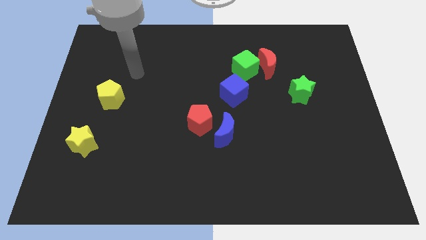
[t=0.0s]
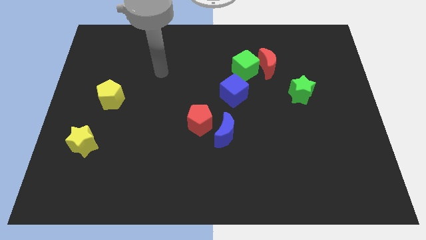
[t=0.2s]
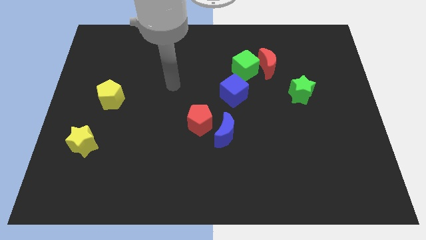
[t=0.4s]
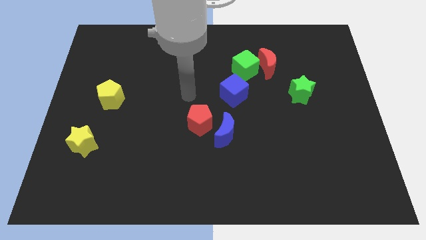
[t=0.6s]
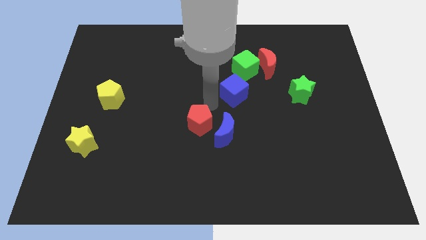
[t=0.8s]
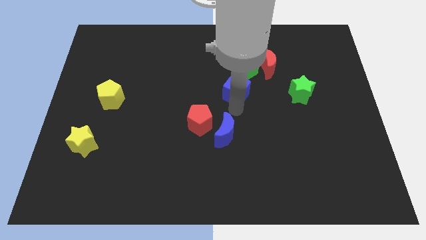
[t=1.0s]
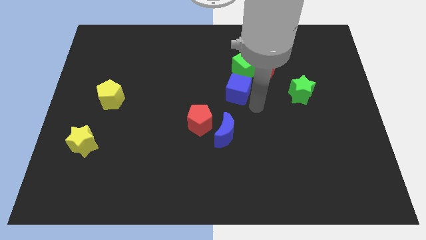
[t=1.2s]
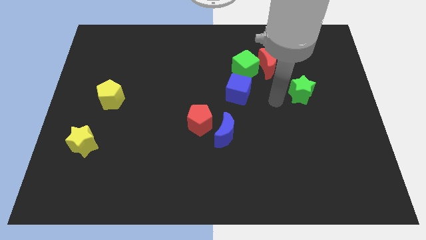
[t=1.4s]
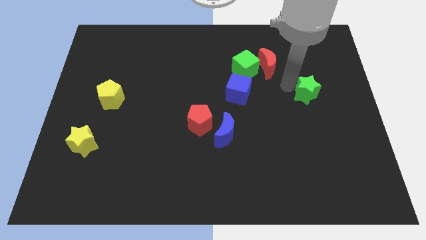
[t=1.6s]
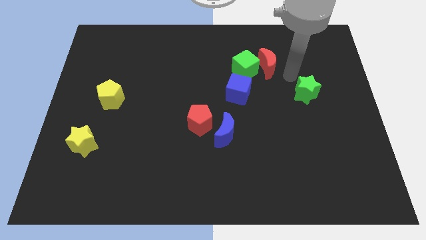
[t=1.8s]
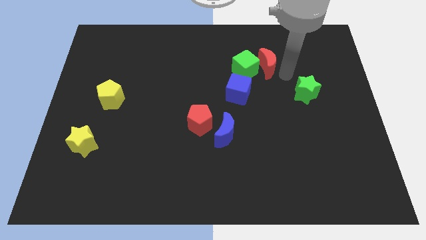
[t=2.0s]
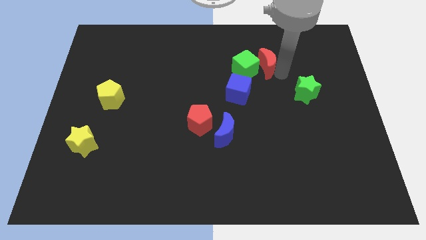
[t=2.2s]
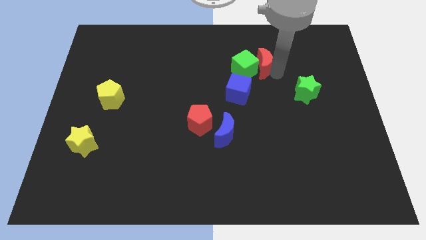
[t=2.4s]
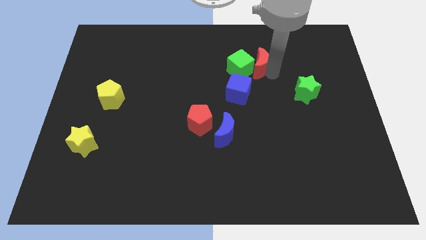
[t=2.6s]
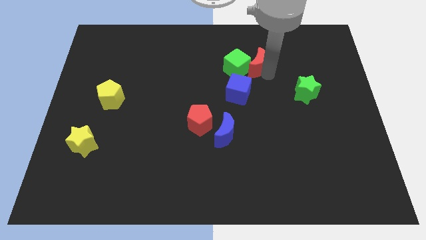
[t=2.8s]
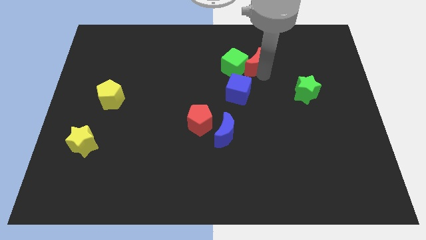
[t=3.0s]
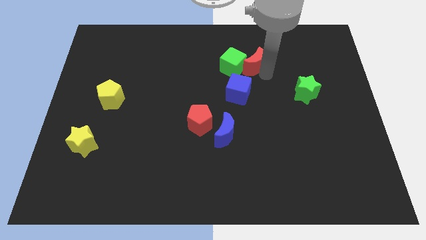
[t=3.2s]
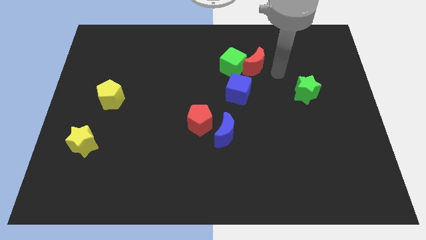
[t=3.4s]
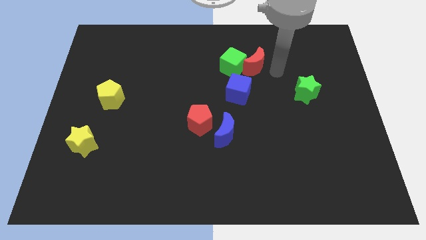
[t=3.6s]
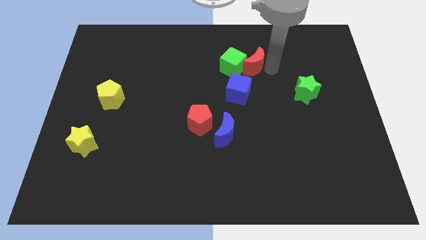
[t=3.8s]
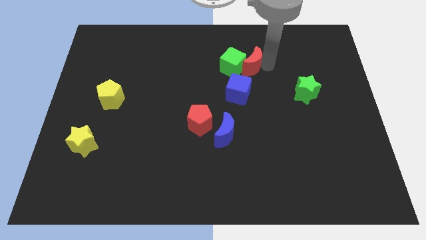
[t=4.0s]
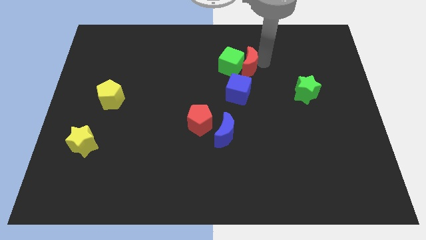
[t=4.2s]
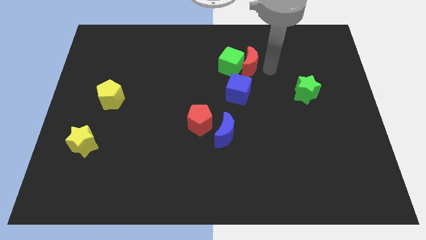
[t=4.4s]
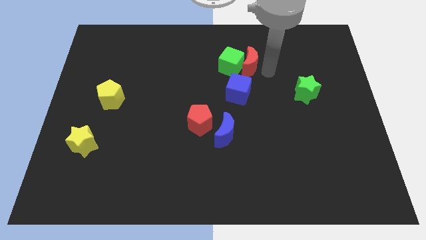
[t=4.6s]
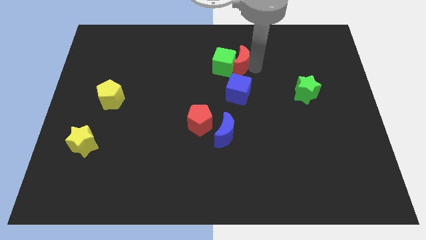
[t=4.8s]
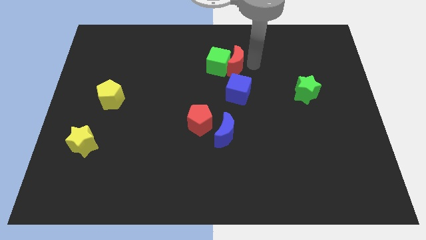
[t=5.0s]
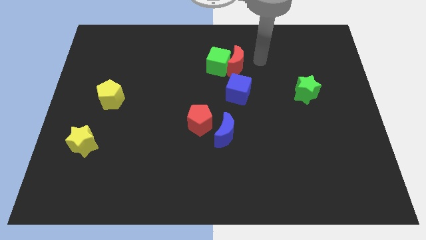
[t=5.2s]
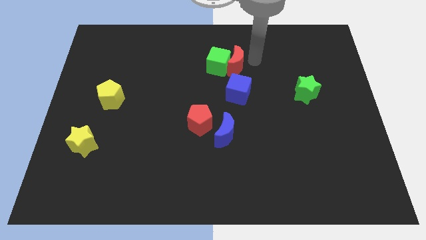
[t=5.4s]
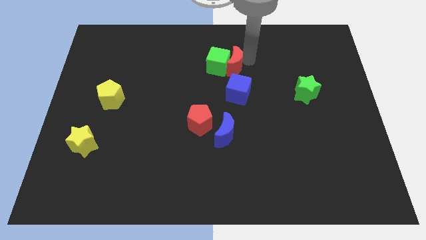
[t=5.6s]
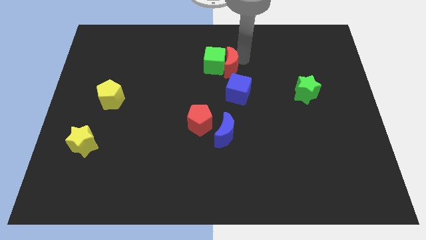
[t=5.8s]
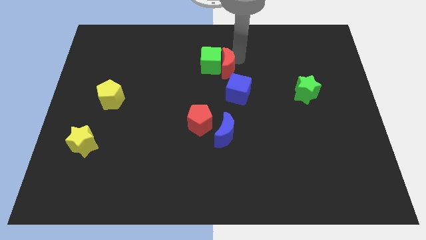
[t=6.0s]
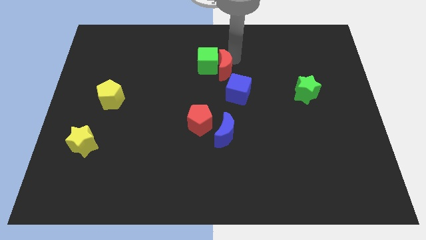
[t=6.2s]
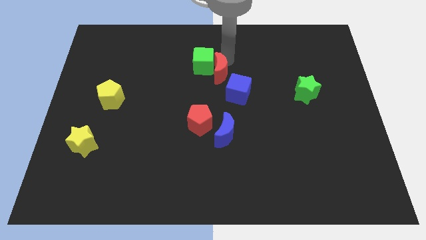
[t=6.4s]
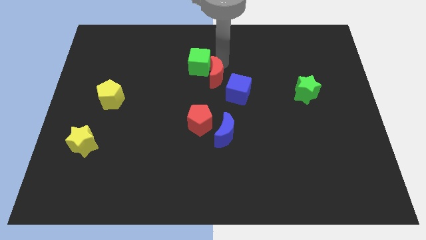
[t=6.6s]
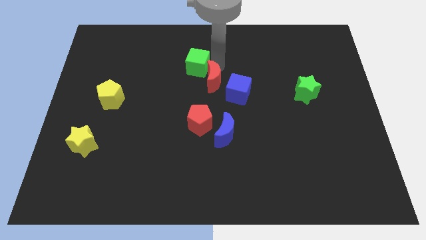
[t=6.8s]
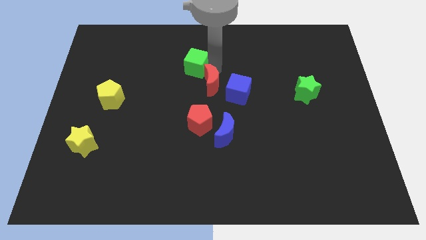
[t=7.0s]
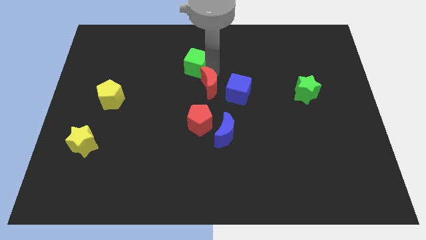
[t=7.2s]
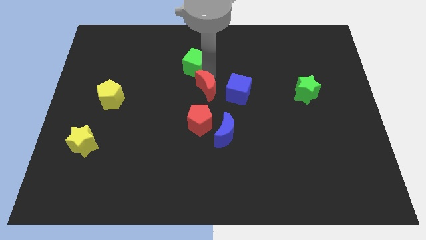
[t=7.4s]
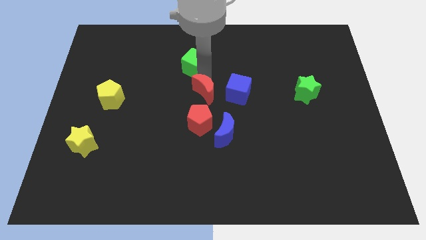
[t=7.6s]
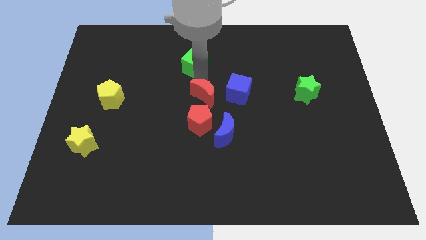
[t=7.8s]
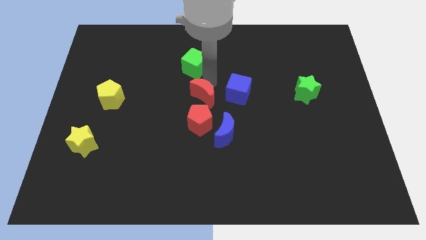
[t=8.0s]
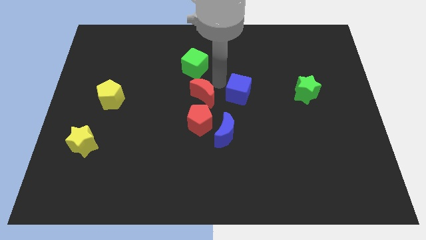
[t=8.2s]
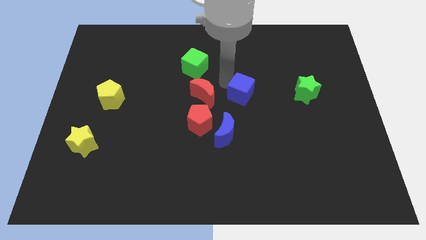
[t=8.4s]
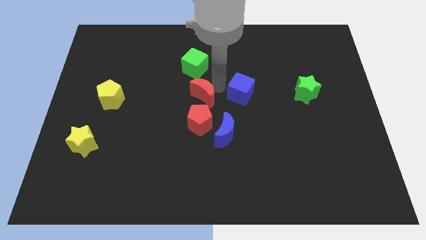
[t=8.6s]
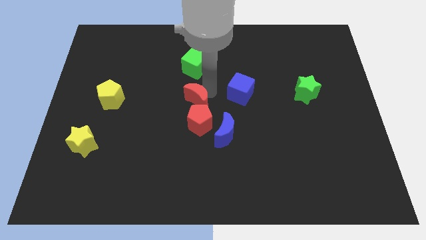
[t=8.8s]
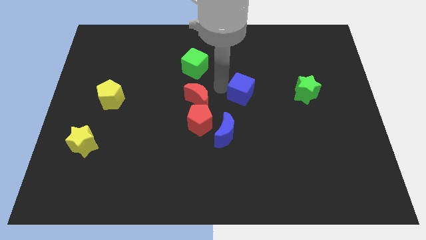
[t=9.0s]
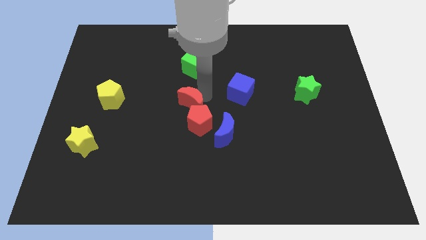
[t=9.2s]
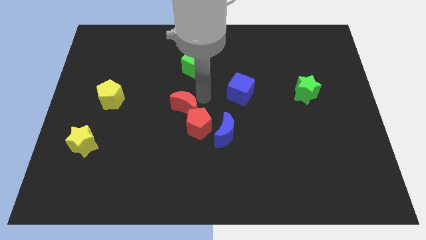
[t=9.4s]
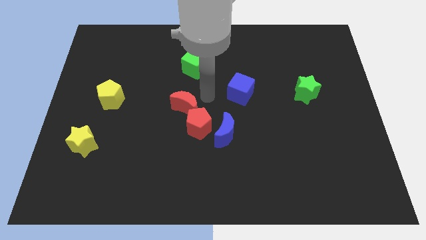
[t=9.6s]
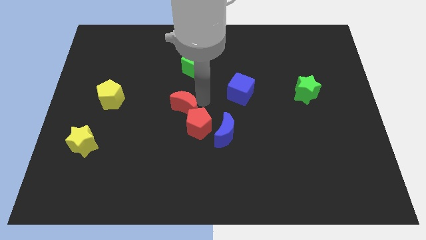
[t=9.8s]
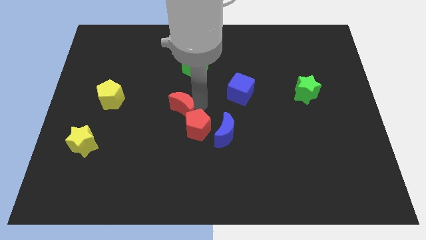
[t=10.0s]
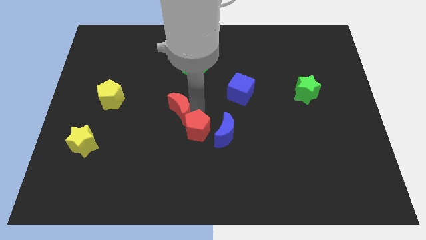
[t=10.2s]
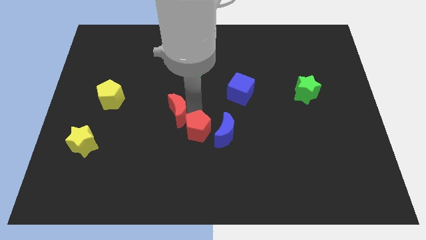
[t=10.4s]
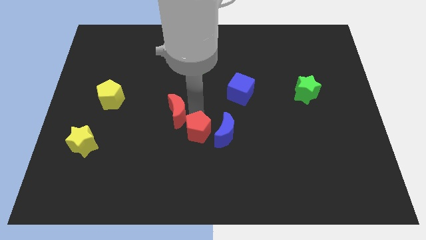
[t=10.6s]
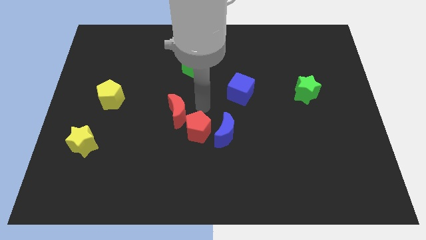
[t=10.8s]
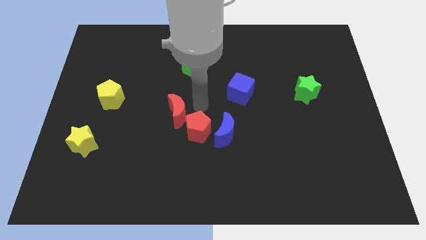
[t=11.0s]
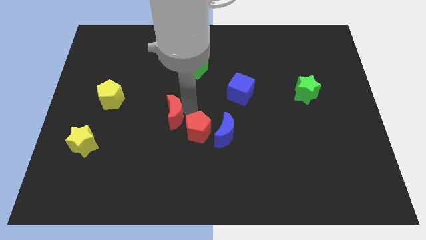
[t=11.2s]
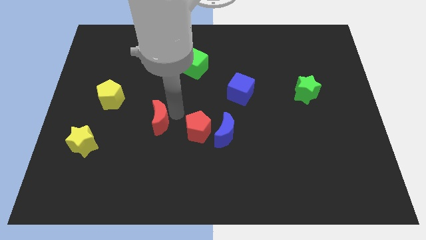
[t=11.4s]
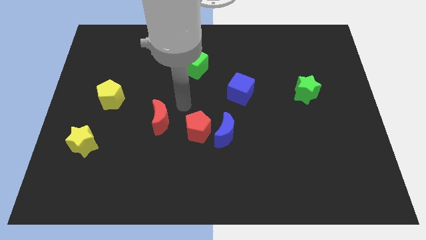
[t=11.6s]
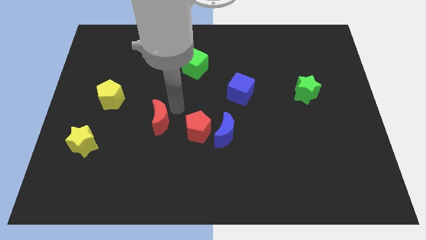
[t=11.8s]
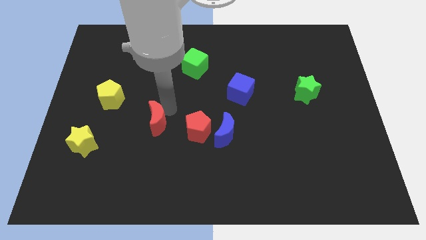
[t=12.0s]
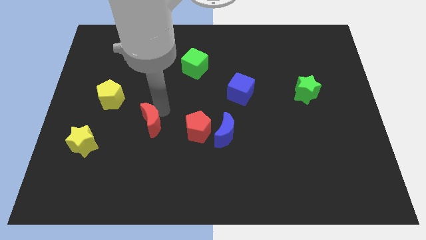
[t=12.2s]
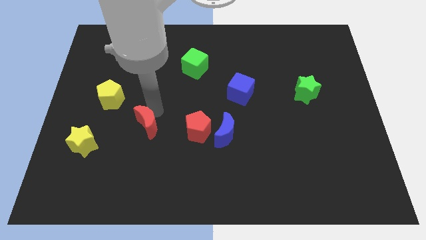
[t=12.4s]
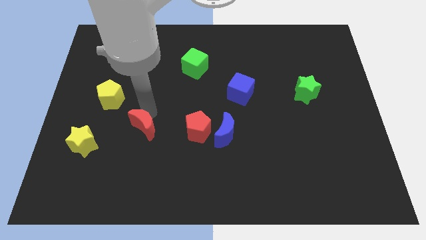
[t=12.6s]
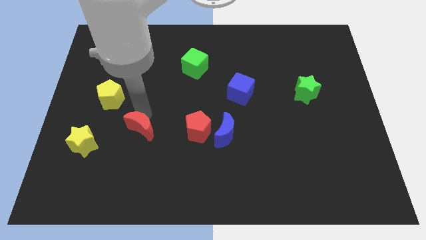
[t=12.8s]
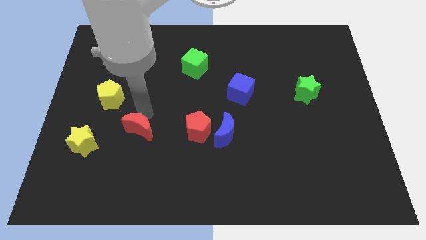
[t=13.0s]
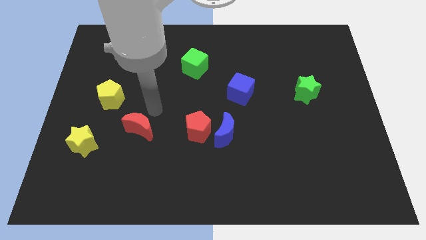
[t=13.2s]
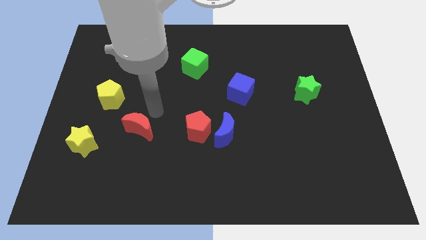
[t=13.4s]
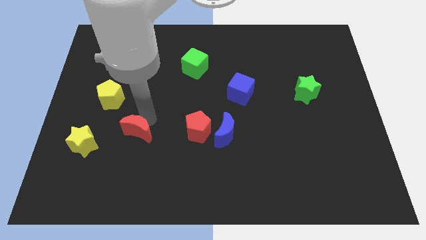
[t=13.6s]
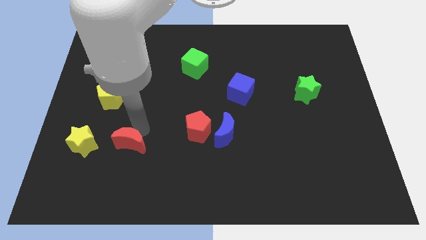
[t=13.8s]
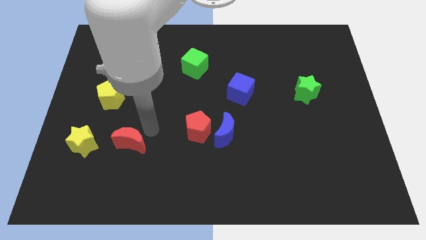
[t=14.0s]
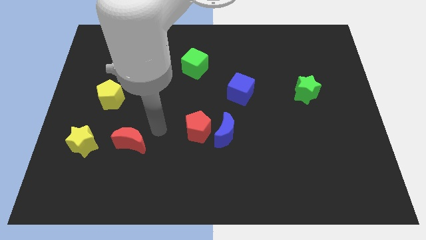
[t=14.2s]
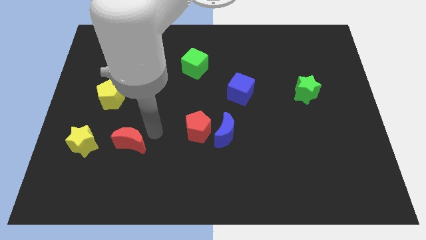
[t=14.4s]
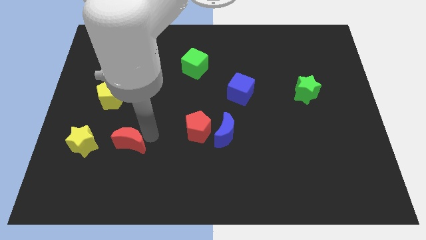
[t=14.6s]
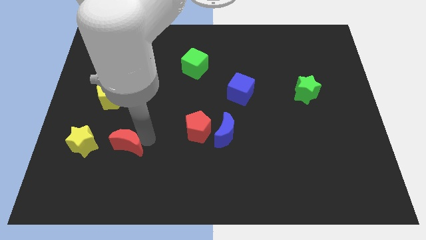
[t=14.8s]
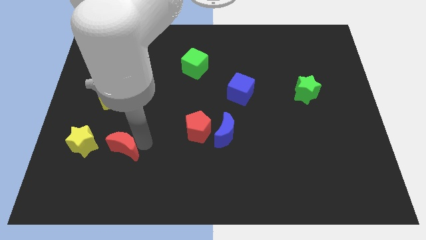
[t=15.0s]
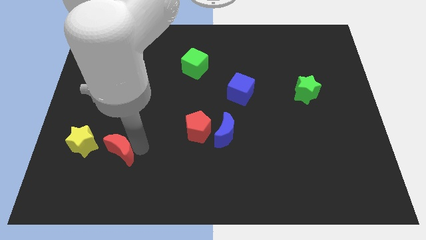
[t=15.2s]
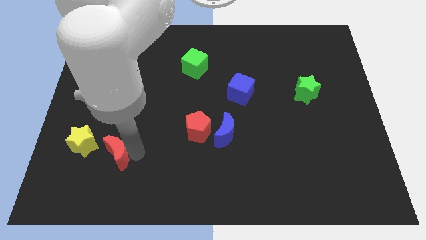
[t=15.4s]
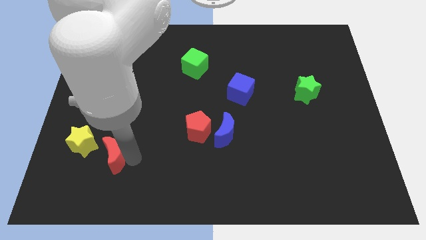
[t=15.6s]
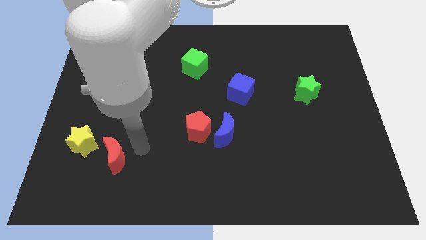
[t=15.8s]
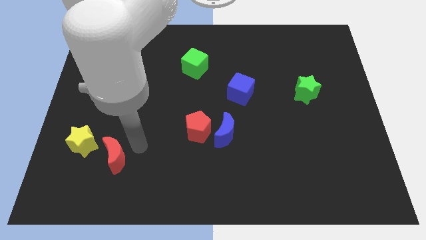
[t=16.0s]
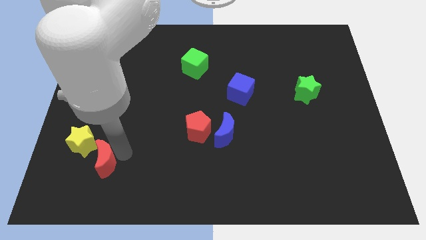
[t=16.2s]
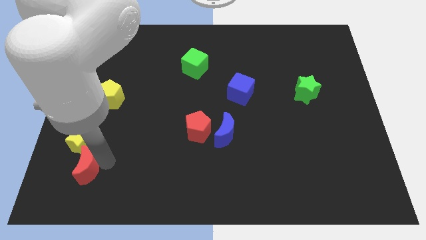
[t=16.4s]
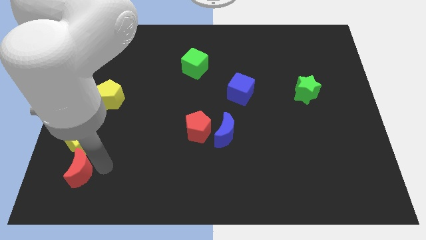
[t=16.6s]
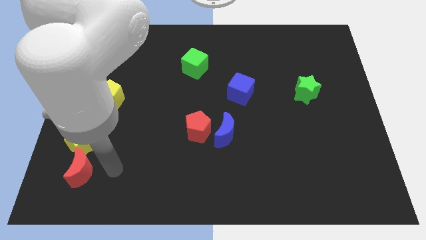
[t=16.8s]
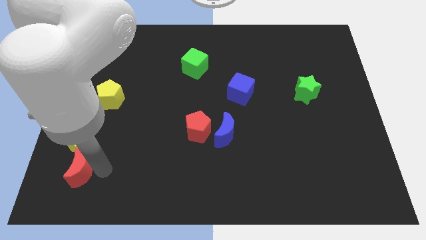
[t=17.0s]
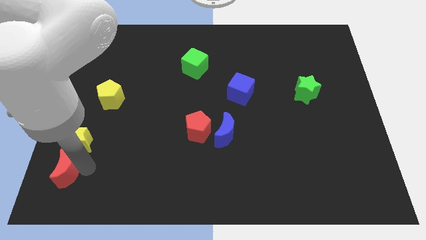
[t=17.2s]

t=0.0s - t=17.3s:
move the red moon to the bottom left corner
